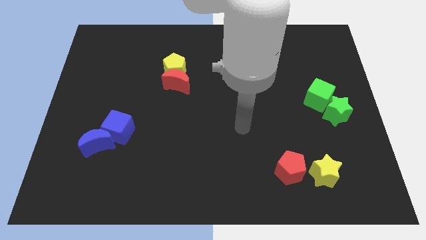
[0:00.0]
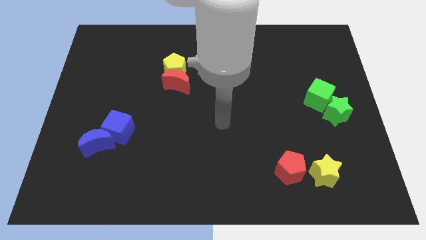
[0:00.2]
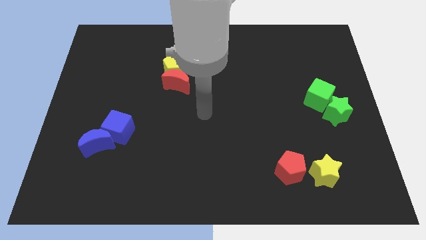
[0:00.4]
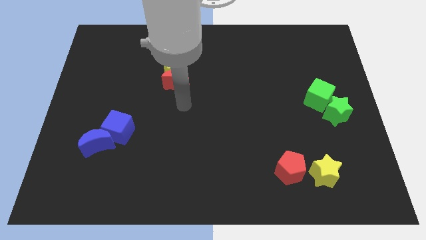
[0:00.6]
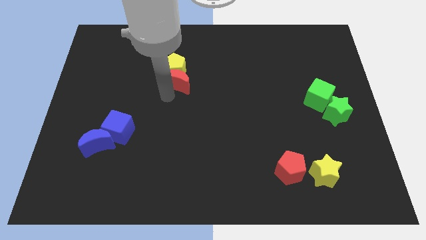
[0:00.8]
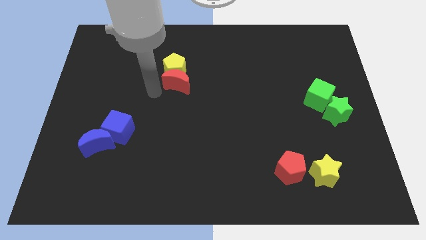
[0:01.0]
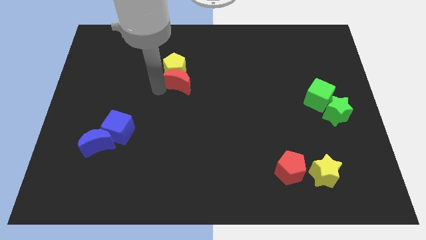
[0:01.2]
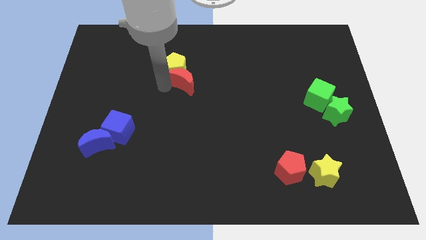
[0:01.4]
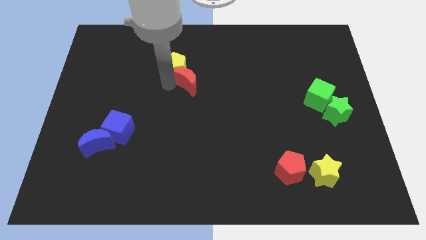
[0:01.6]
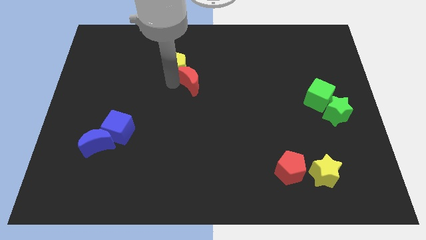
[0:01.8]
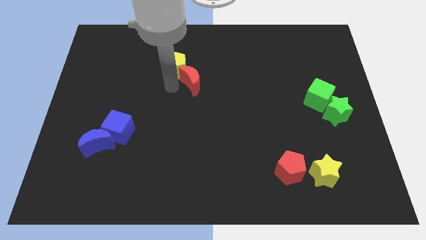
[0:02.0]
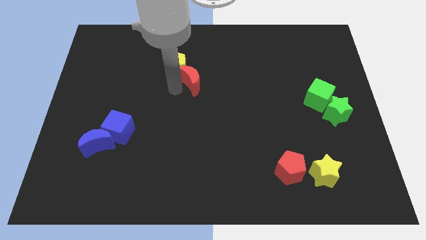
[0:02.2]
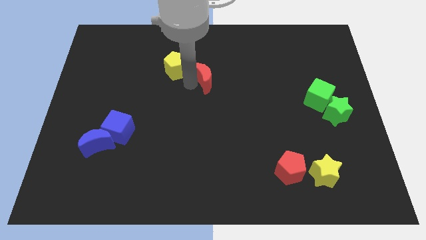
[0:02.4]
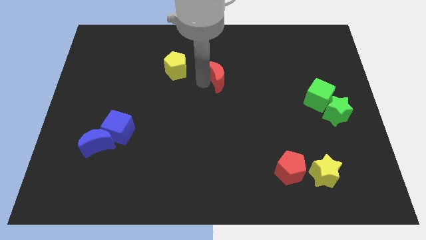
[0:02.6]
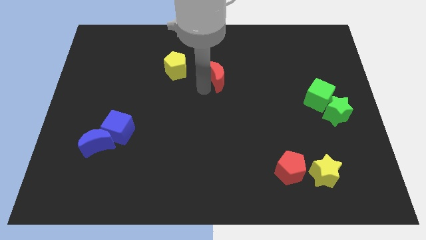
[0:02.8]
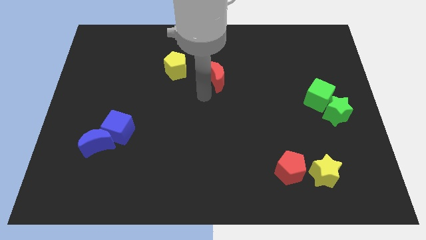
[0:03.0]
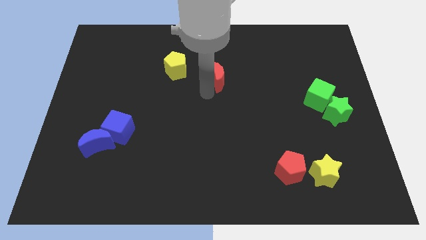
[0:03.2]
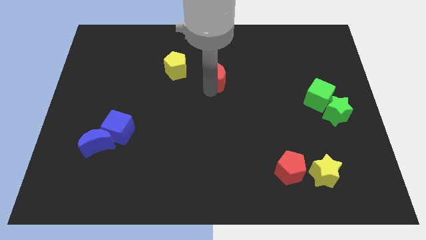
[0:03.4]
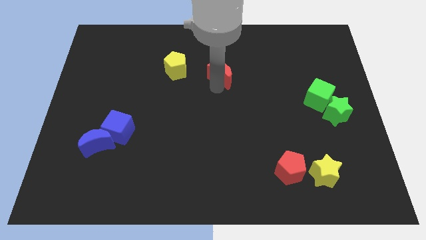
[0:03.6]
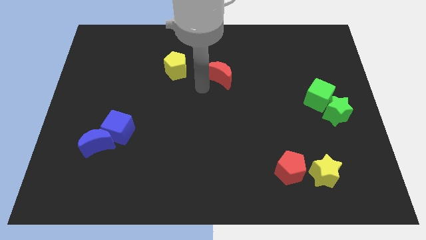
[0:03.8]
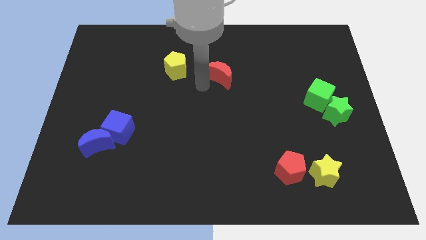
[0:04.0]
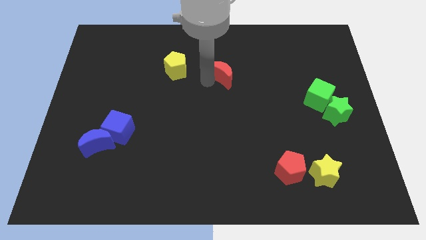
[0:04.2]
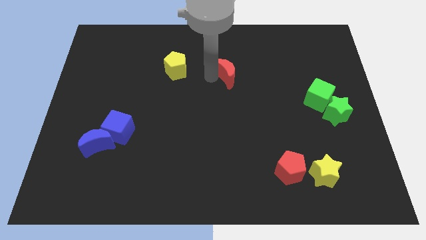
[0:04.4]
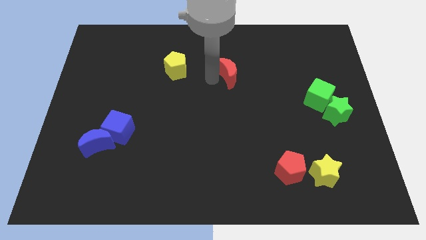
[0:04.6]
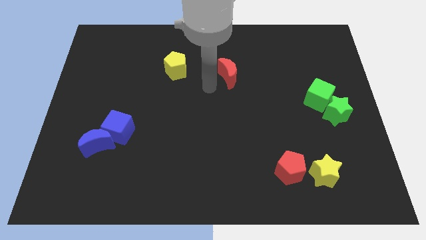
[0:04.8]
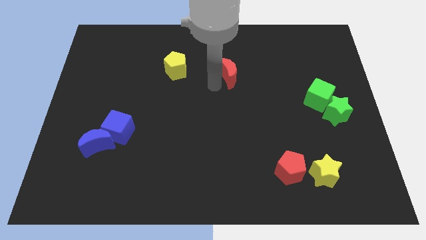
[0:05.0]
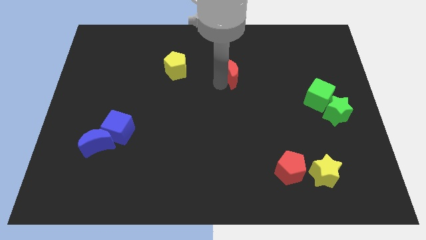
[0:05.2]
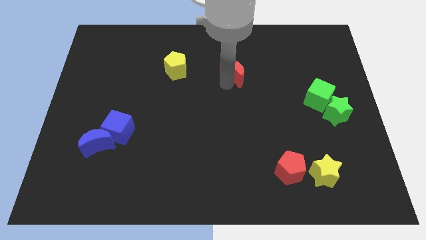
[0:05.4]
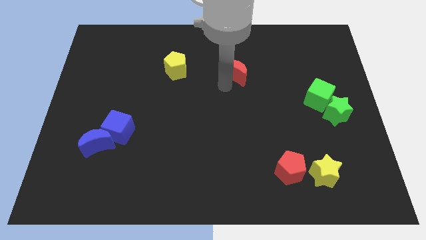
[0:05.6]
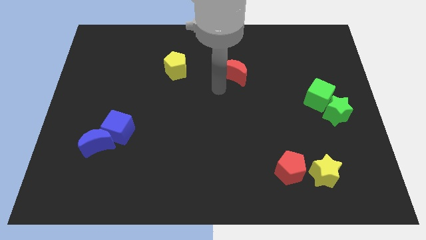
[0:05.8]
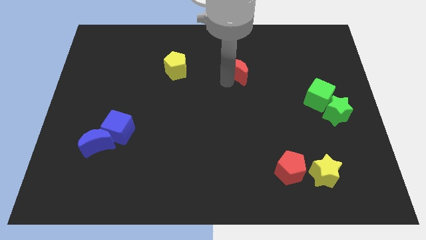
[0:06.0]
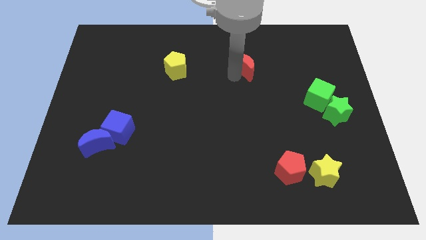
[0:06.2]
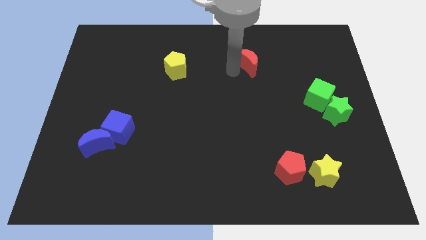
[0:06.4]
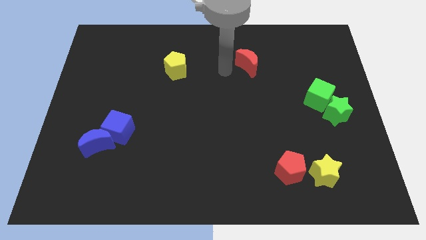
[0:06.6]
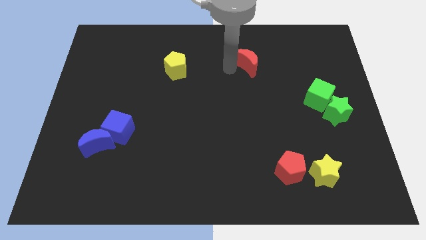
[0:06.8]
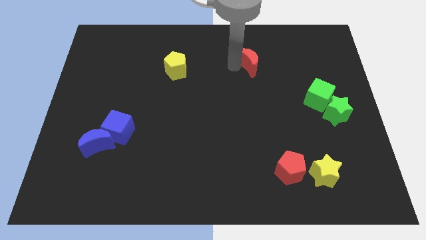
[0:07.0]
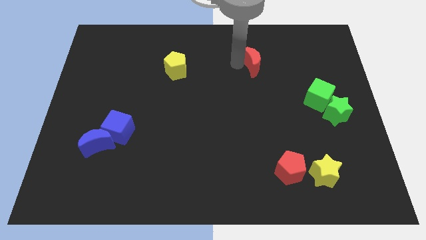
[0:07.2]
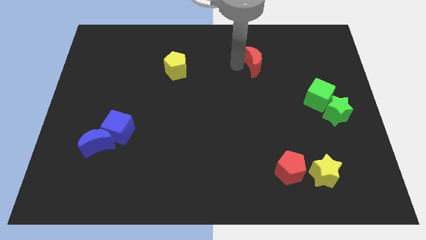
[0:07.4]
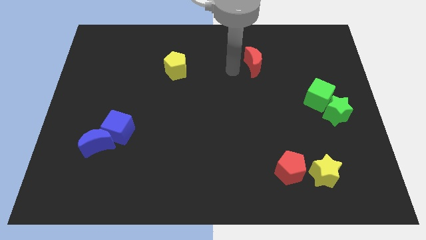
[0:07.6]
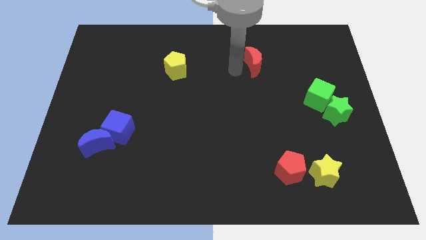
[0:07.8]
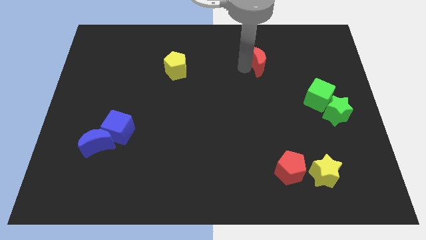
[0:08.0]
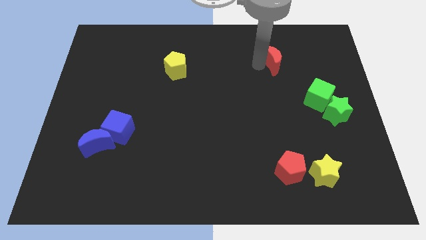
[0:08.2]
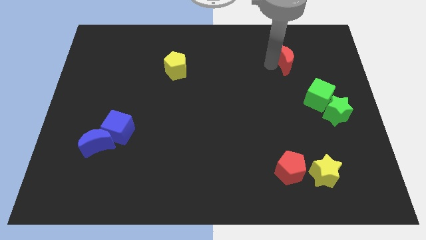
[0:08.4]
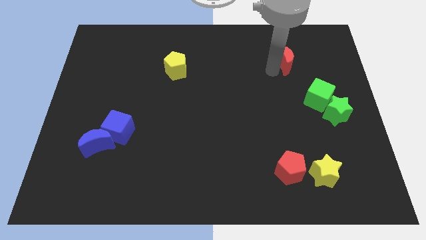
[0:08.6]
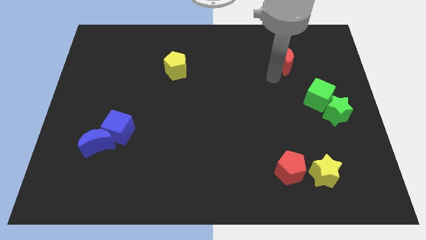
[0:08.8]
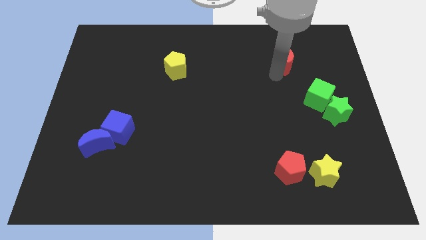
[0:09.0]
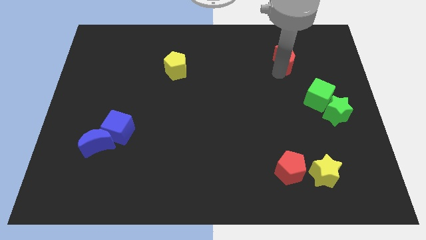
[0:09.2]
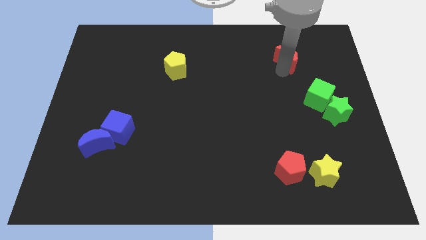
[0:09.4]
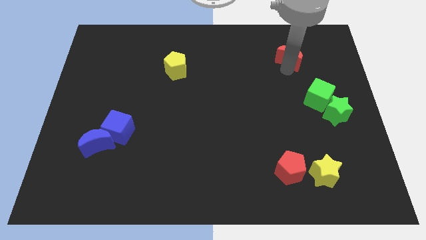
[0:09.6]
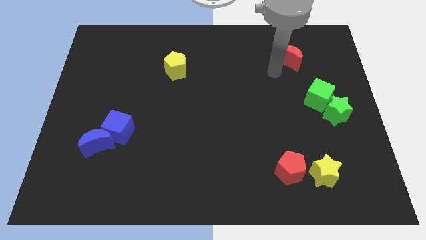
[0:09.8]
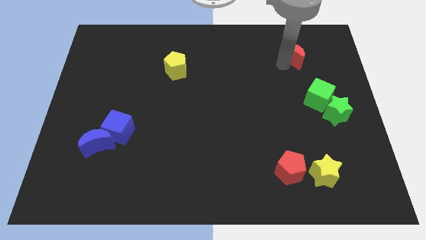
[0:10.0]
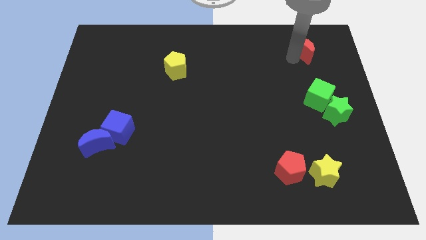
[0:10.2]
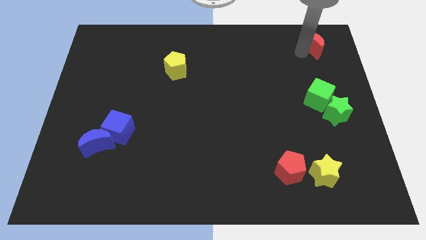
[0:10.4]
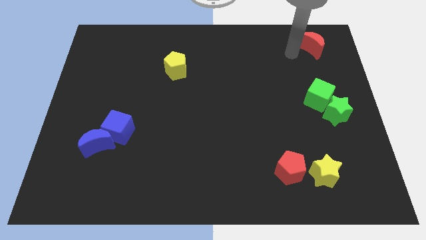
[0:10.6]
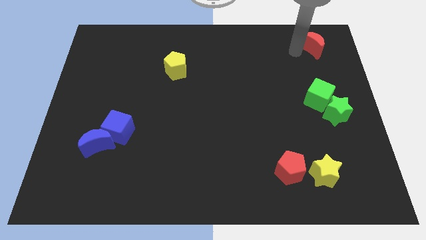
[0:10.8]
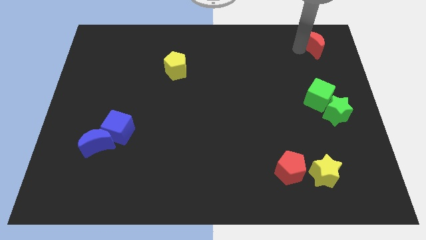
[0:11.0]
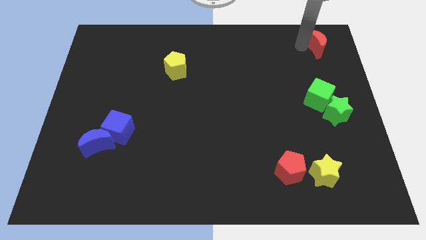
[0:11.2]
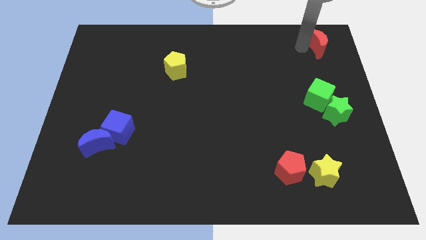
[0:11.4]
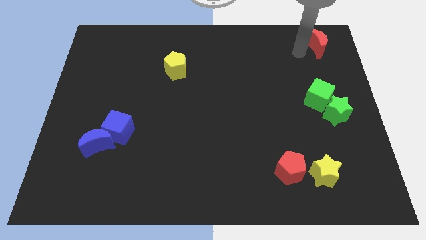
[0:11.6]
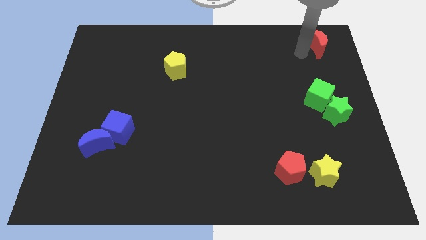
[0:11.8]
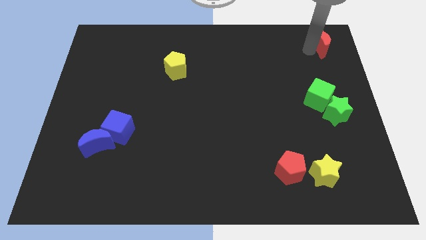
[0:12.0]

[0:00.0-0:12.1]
push the red moon to the top right of the board

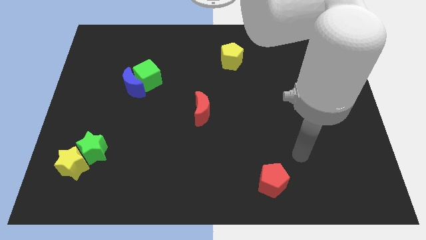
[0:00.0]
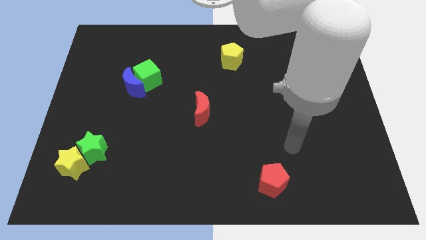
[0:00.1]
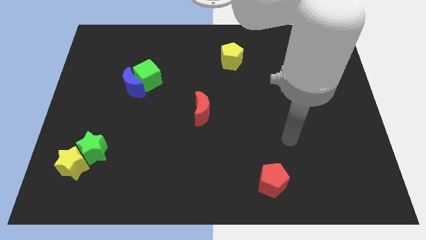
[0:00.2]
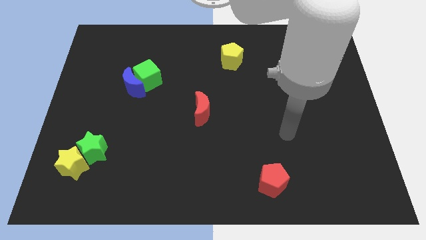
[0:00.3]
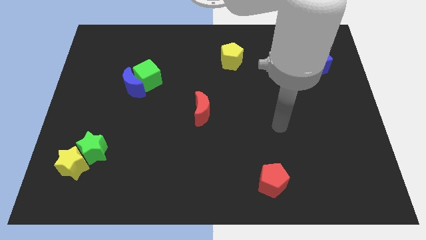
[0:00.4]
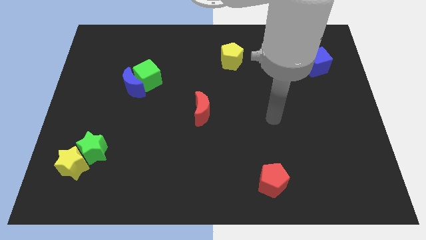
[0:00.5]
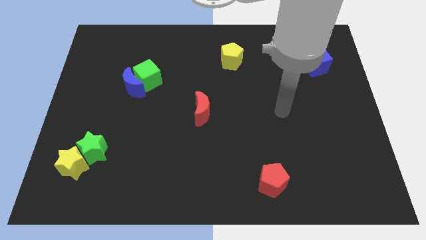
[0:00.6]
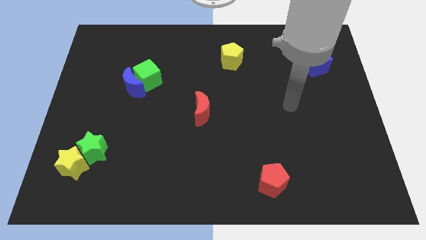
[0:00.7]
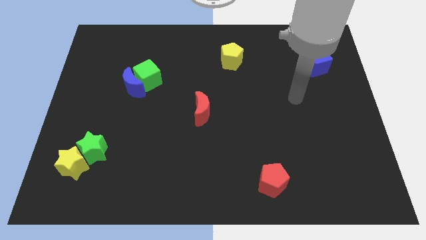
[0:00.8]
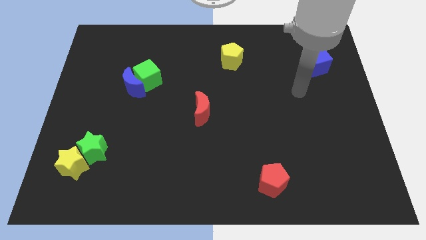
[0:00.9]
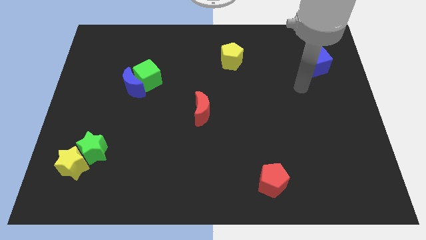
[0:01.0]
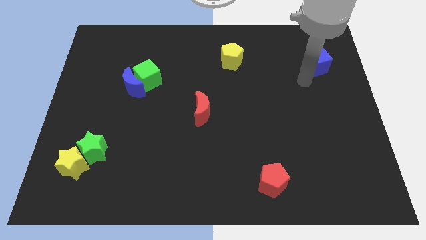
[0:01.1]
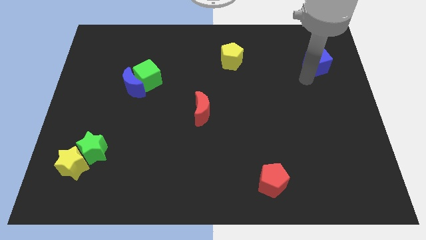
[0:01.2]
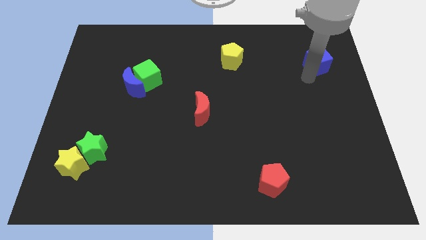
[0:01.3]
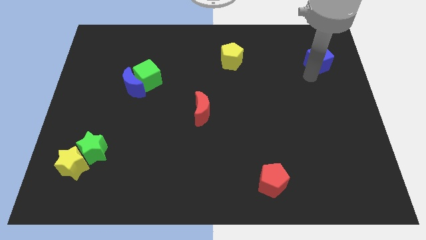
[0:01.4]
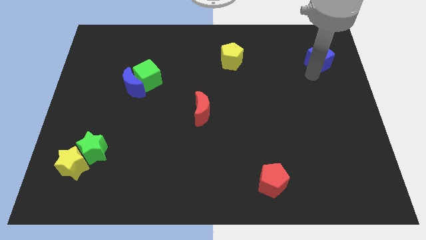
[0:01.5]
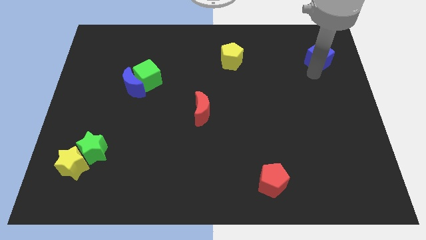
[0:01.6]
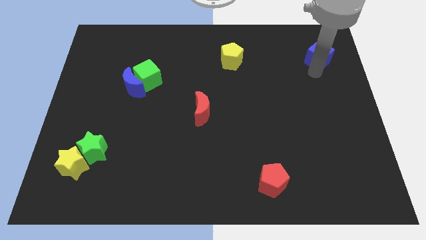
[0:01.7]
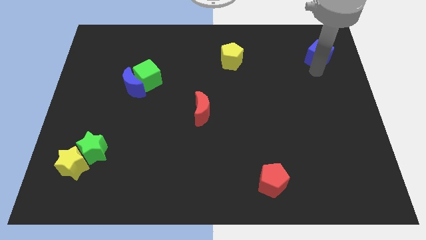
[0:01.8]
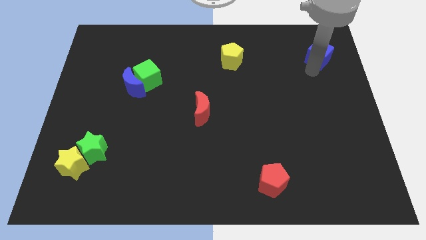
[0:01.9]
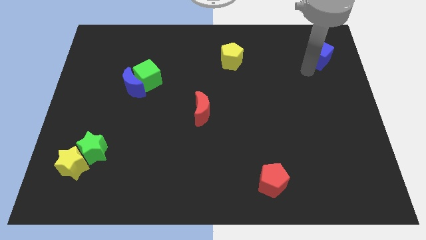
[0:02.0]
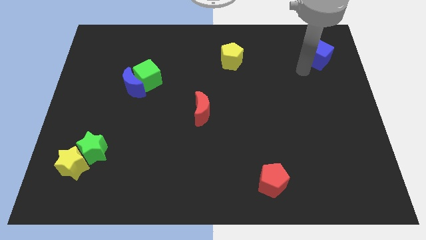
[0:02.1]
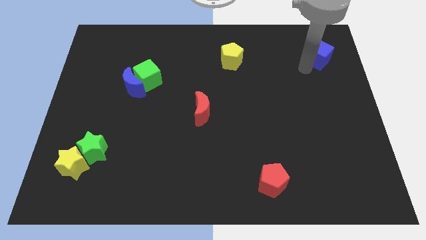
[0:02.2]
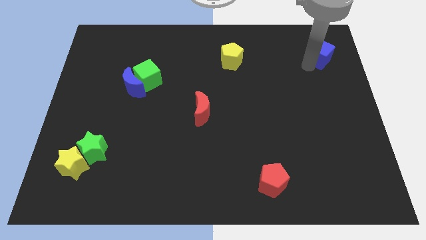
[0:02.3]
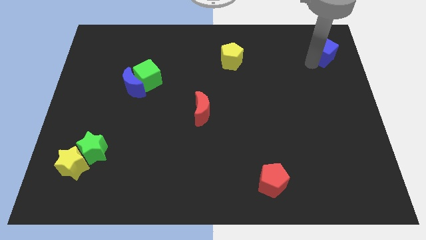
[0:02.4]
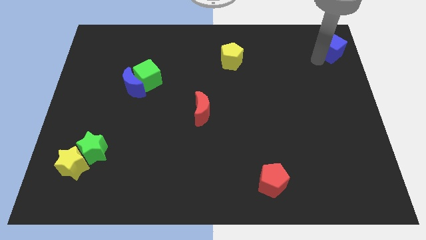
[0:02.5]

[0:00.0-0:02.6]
push the blue cube to the upper right corner
